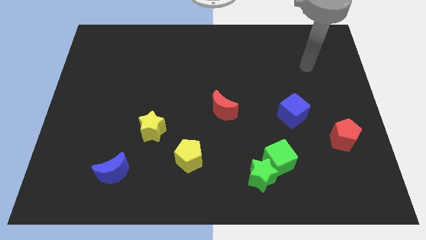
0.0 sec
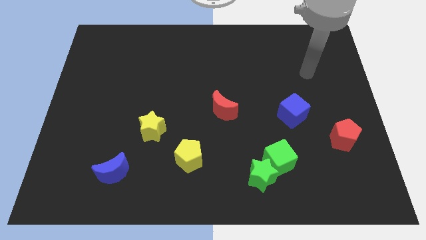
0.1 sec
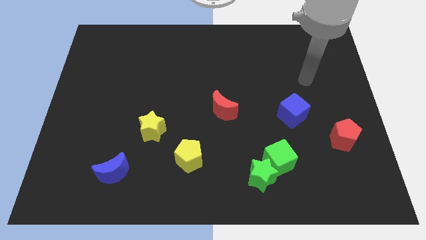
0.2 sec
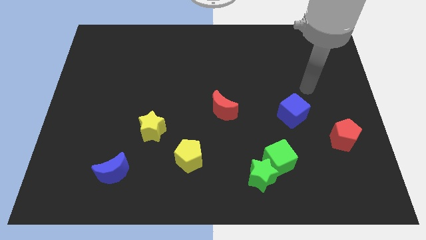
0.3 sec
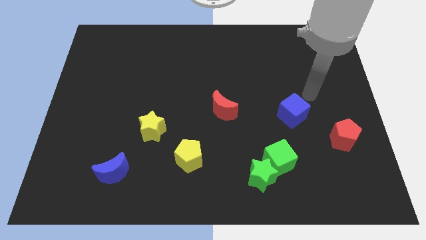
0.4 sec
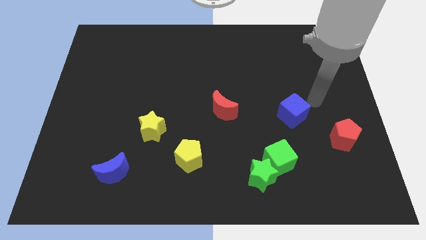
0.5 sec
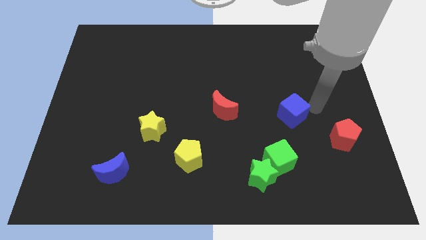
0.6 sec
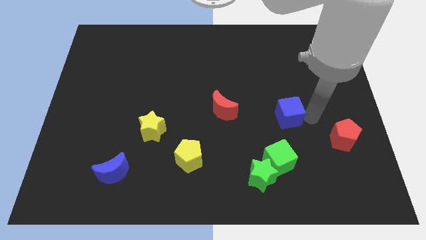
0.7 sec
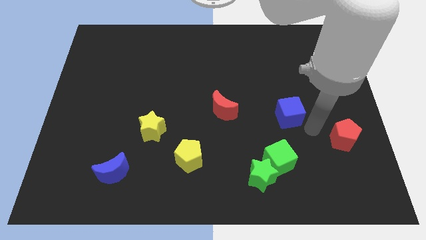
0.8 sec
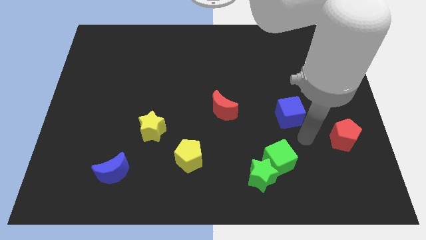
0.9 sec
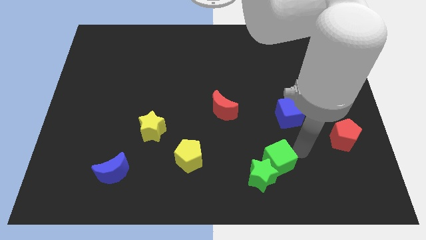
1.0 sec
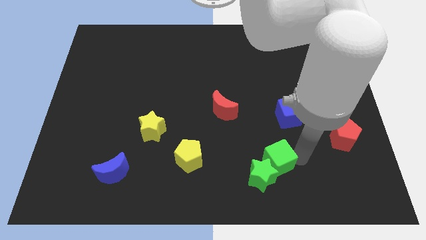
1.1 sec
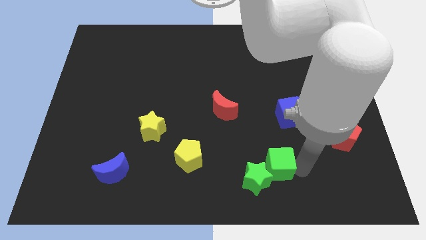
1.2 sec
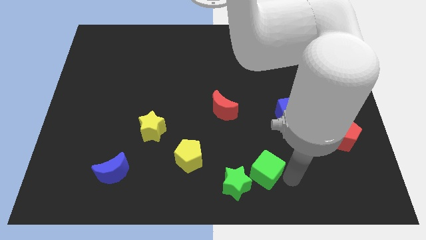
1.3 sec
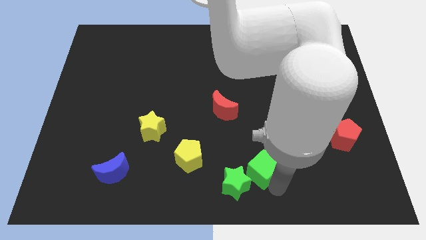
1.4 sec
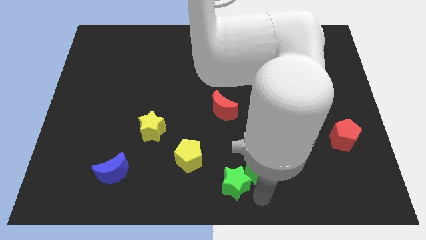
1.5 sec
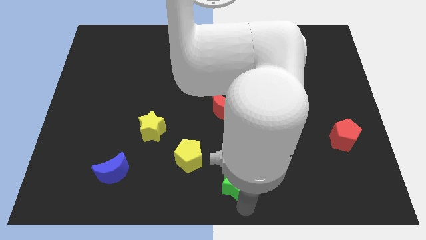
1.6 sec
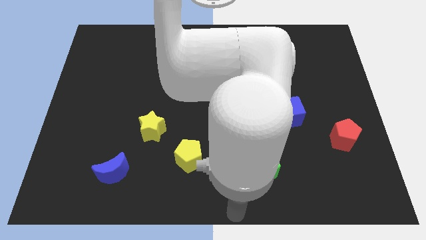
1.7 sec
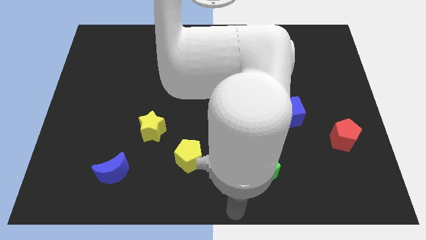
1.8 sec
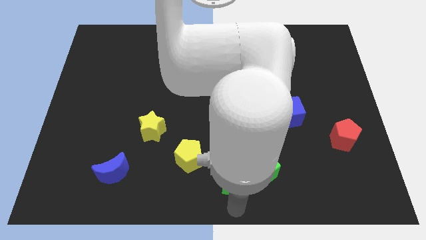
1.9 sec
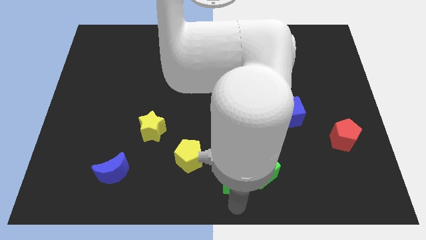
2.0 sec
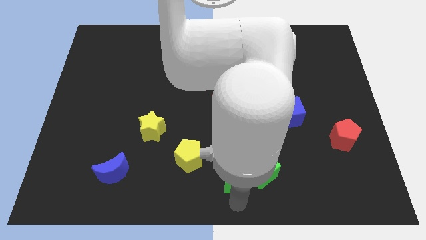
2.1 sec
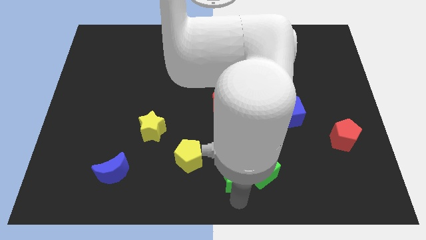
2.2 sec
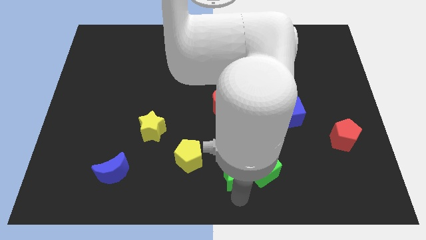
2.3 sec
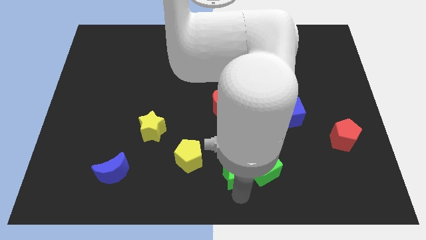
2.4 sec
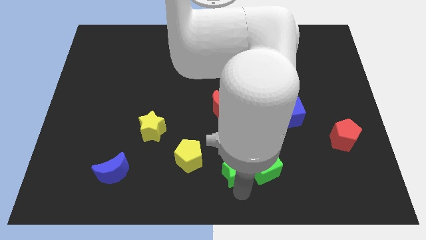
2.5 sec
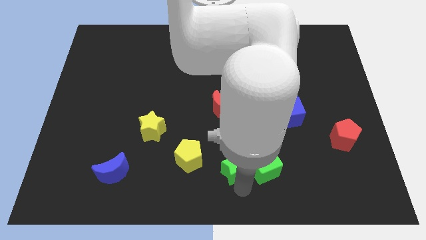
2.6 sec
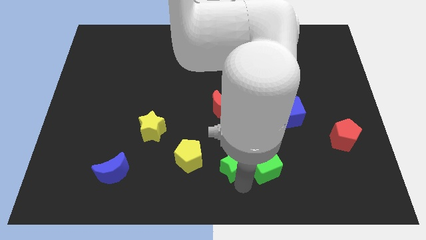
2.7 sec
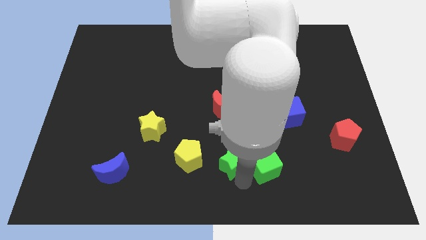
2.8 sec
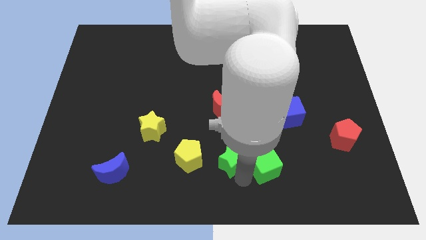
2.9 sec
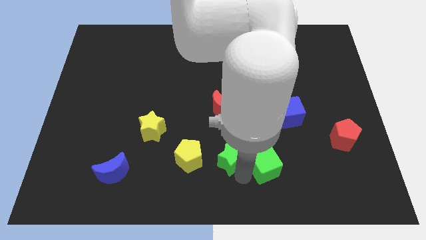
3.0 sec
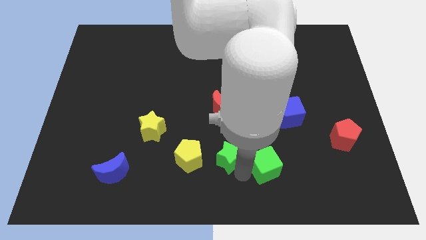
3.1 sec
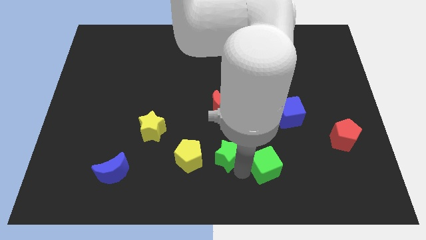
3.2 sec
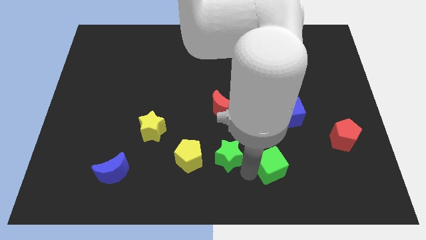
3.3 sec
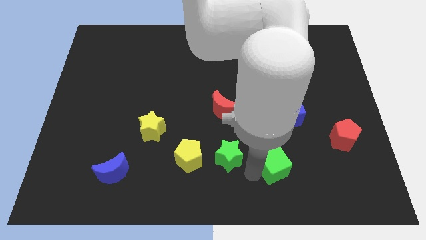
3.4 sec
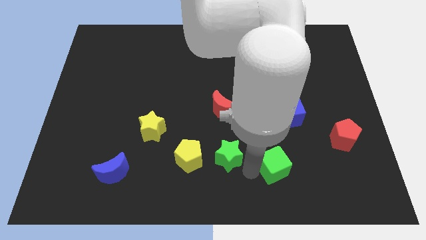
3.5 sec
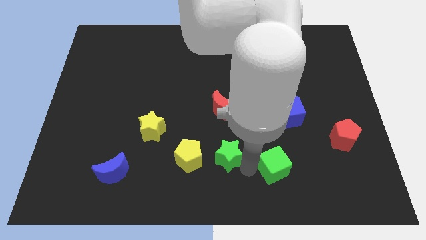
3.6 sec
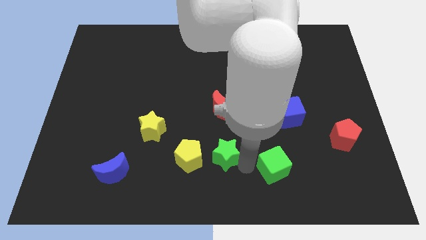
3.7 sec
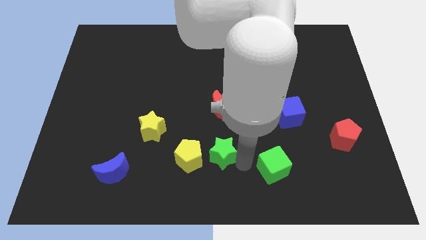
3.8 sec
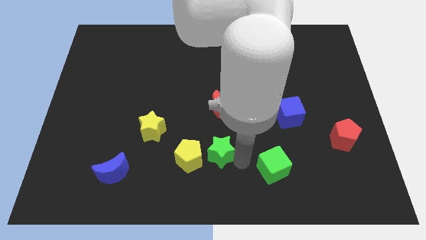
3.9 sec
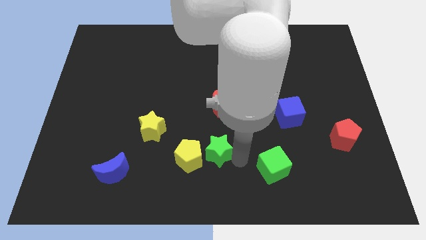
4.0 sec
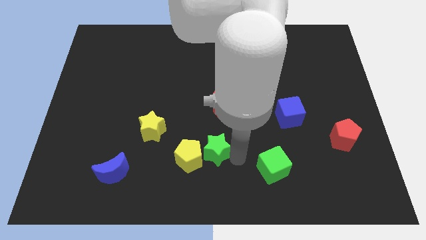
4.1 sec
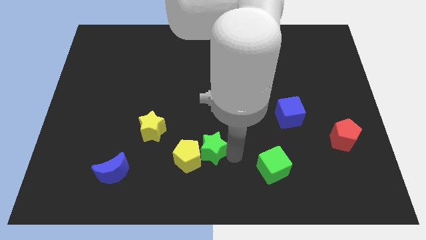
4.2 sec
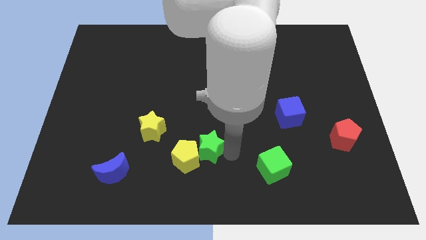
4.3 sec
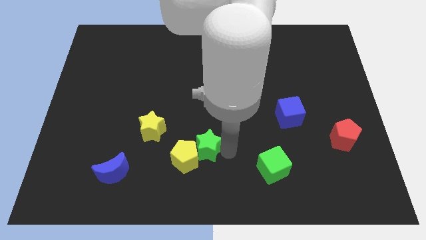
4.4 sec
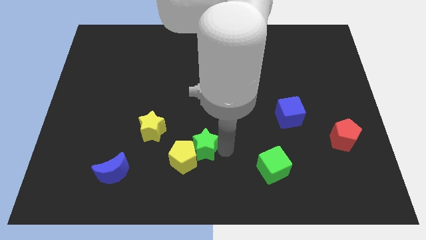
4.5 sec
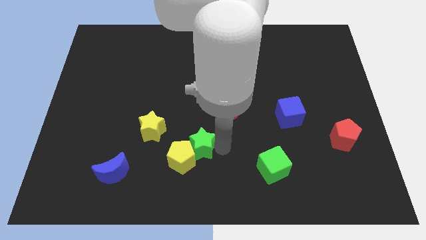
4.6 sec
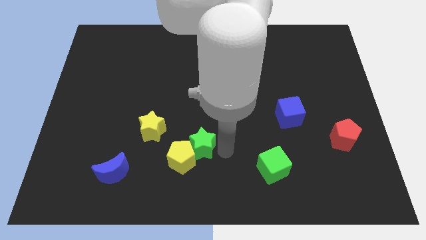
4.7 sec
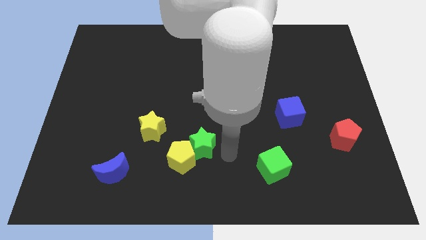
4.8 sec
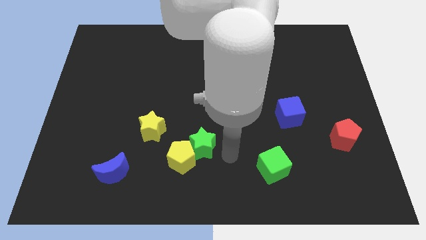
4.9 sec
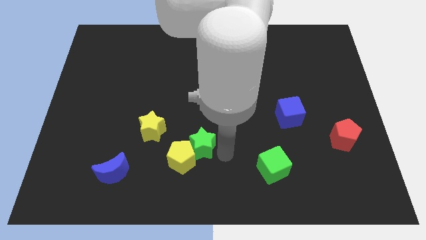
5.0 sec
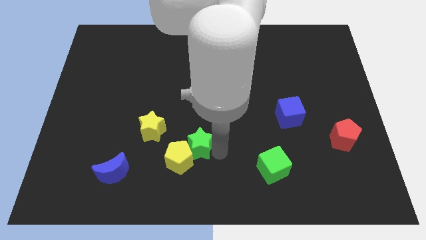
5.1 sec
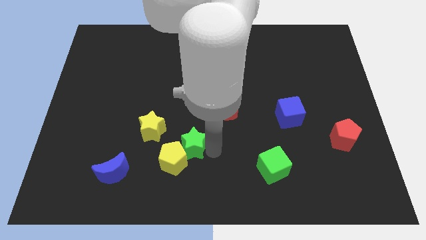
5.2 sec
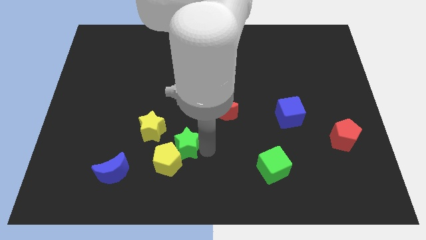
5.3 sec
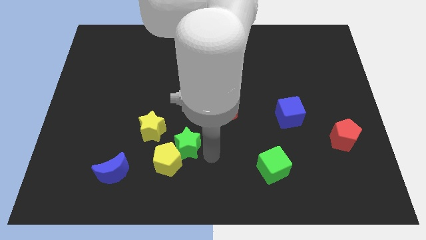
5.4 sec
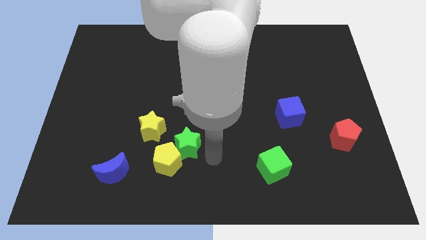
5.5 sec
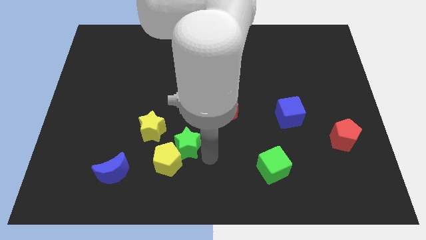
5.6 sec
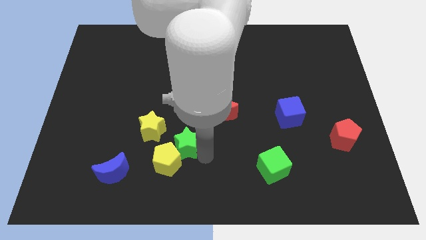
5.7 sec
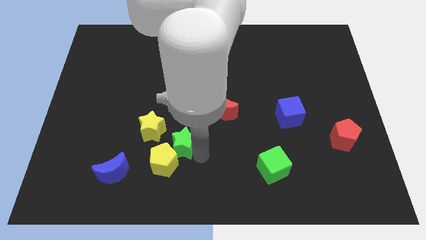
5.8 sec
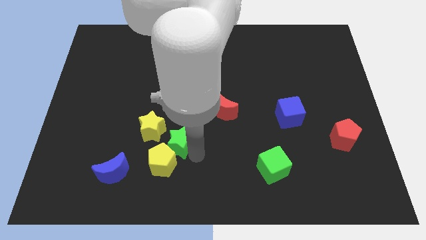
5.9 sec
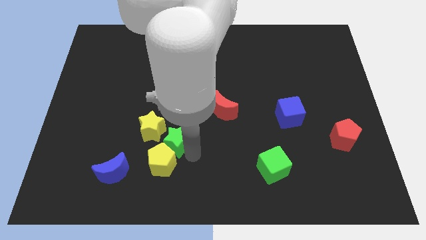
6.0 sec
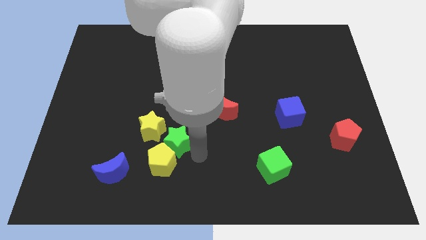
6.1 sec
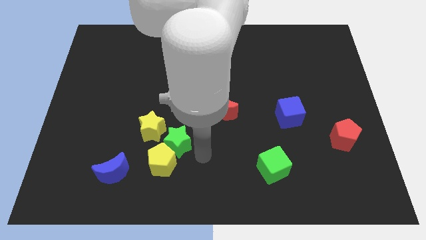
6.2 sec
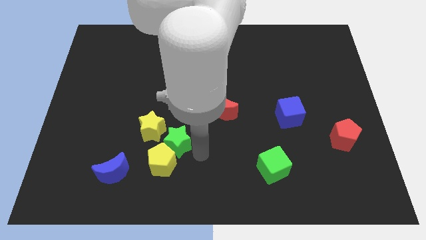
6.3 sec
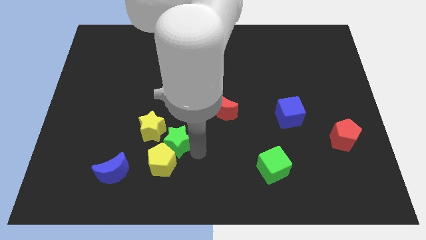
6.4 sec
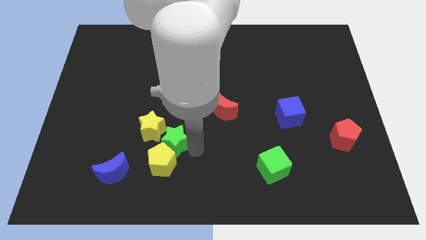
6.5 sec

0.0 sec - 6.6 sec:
slide the green star next to the yellow star

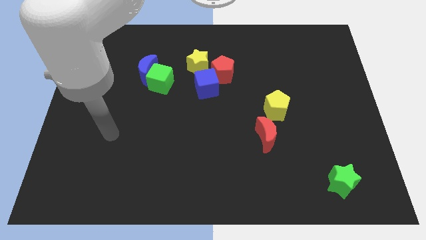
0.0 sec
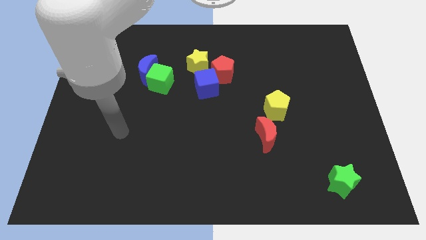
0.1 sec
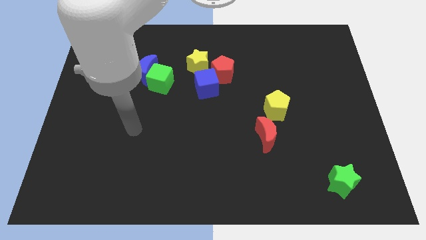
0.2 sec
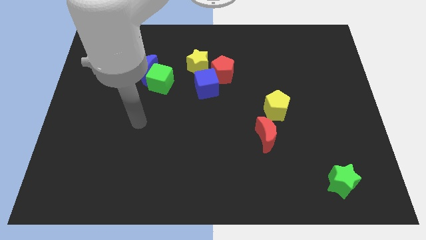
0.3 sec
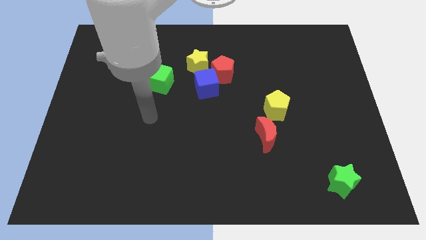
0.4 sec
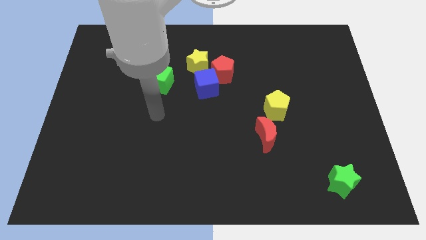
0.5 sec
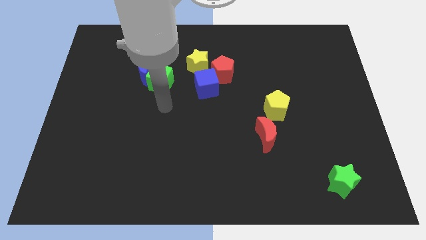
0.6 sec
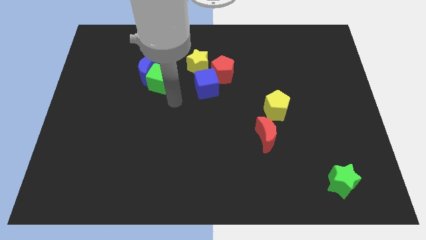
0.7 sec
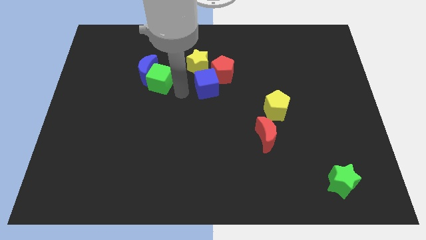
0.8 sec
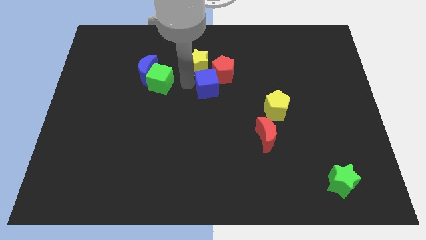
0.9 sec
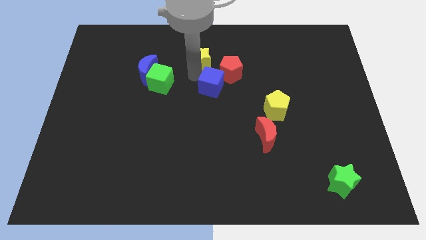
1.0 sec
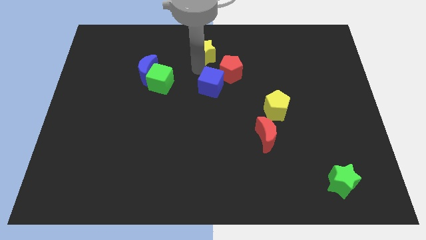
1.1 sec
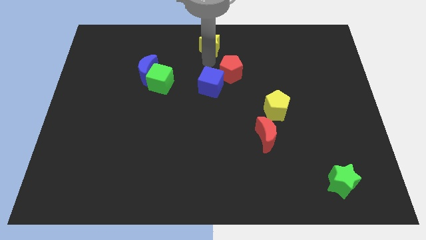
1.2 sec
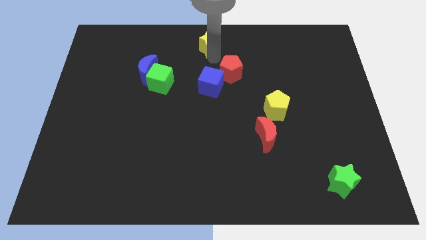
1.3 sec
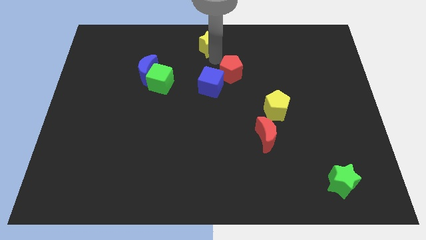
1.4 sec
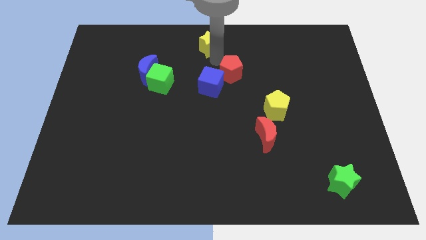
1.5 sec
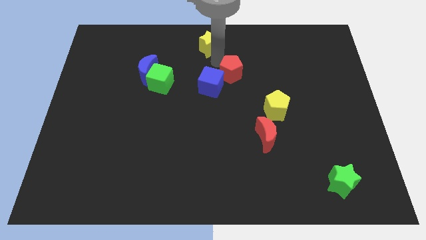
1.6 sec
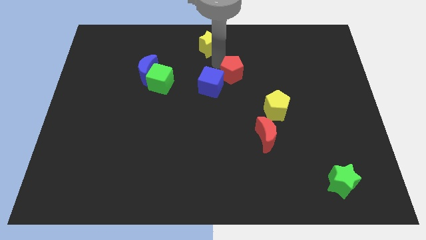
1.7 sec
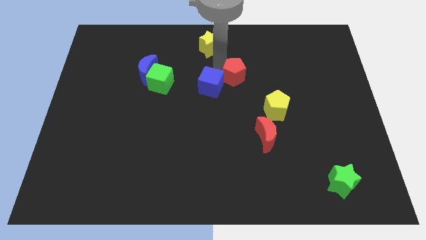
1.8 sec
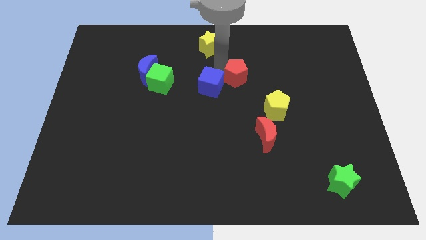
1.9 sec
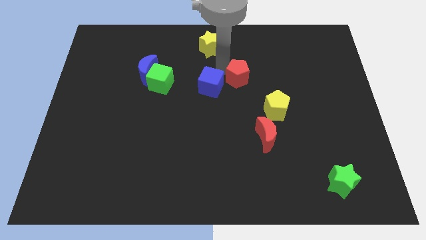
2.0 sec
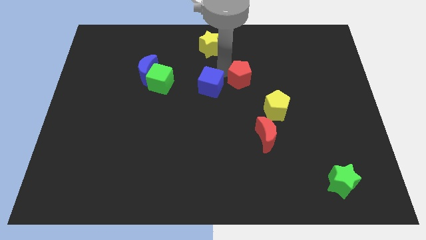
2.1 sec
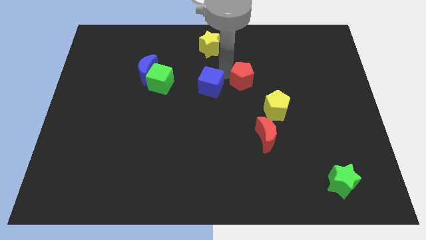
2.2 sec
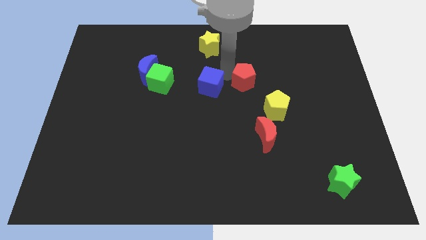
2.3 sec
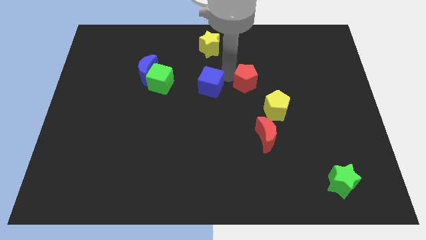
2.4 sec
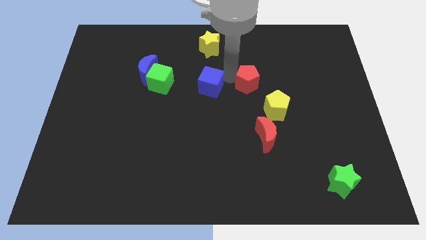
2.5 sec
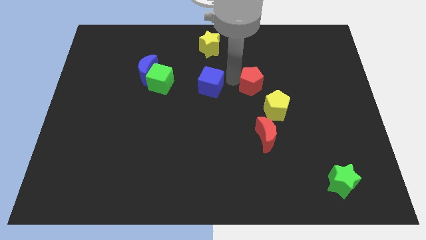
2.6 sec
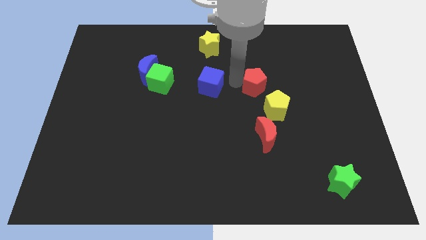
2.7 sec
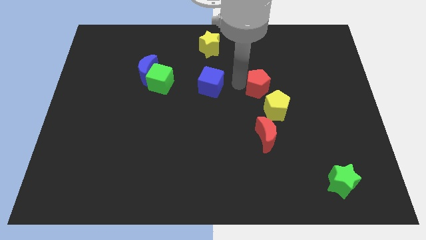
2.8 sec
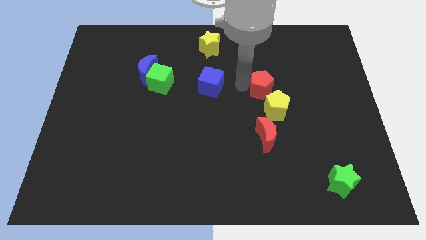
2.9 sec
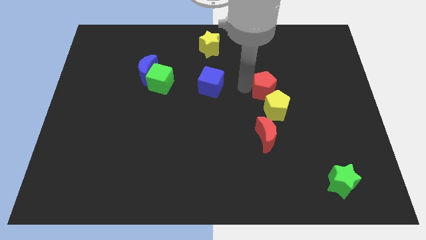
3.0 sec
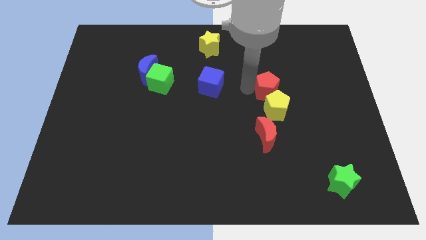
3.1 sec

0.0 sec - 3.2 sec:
move the red pentagon to the yellow pentagon
